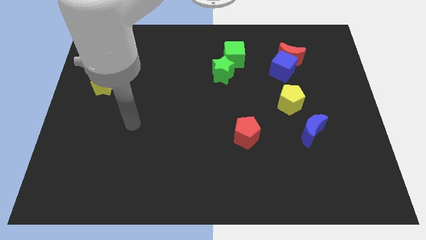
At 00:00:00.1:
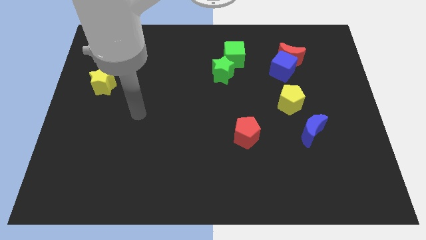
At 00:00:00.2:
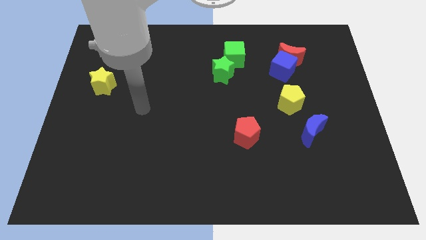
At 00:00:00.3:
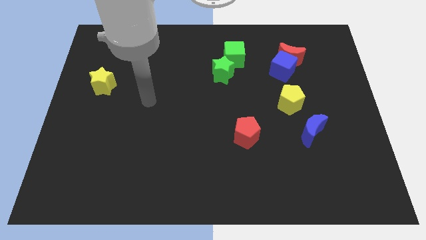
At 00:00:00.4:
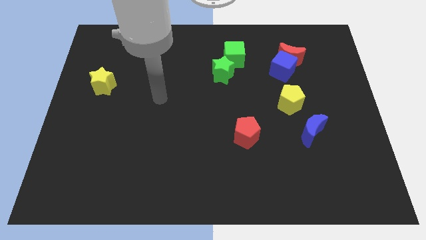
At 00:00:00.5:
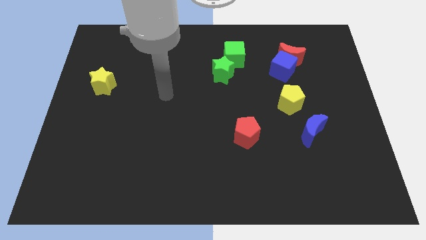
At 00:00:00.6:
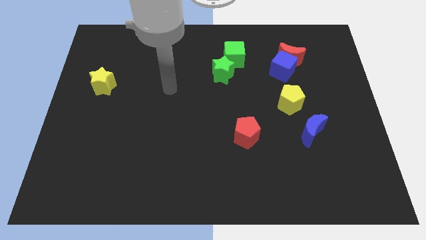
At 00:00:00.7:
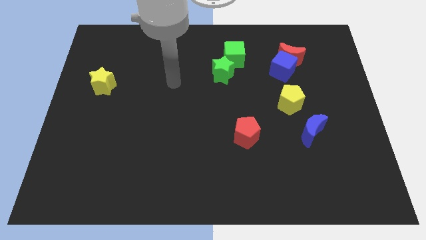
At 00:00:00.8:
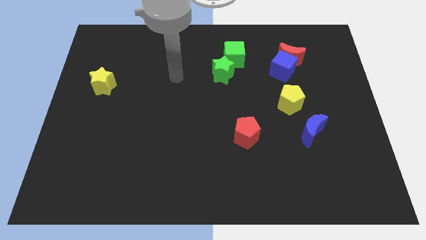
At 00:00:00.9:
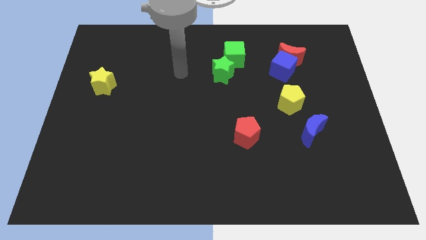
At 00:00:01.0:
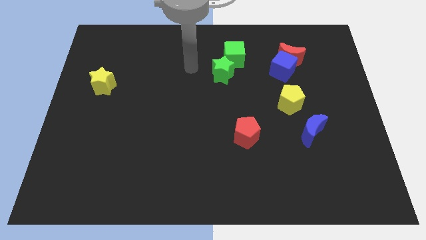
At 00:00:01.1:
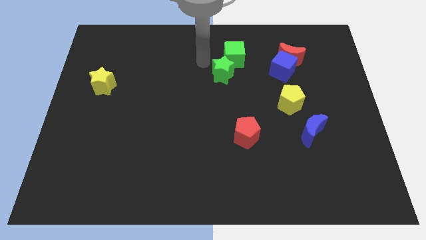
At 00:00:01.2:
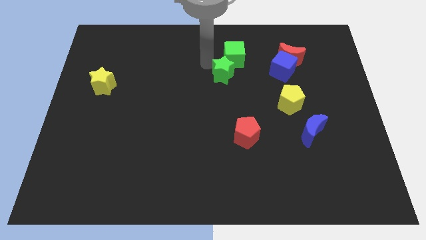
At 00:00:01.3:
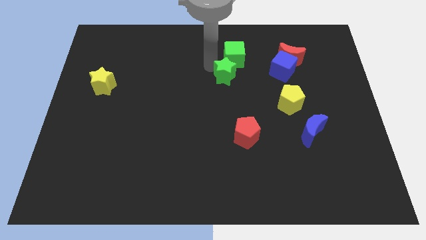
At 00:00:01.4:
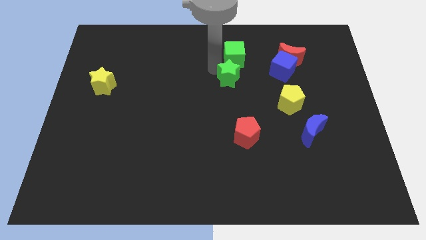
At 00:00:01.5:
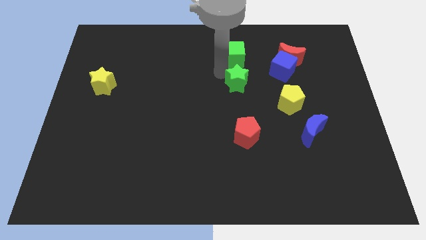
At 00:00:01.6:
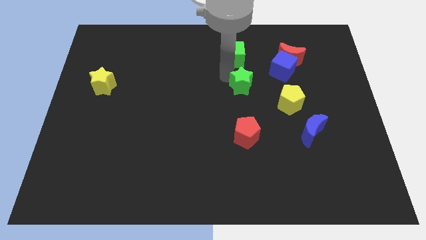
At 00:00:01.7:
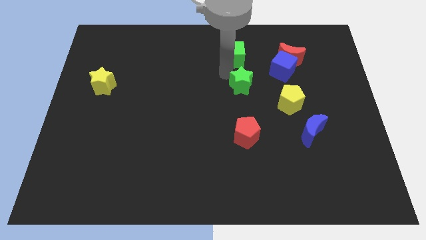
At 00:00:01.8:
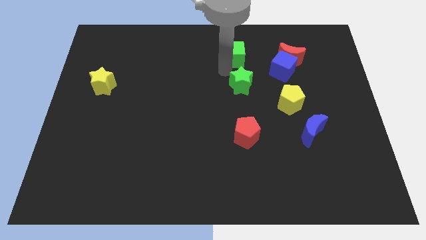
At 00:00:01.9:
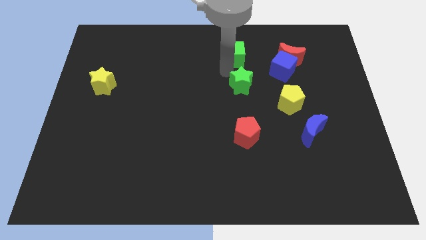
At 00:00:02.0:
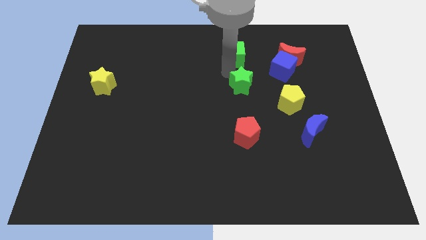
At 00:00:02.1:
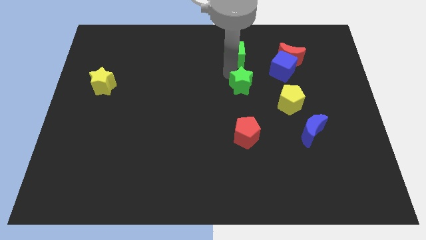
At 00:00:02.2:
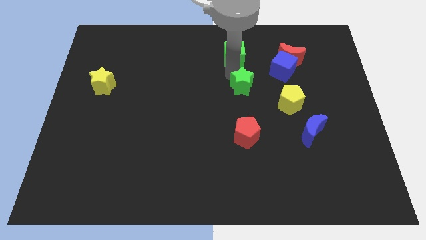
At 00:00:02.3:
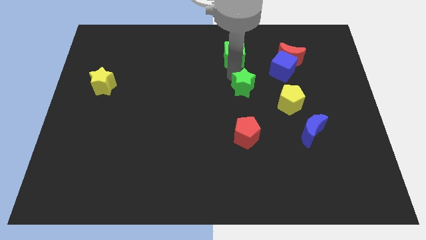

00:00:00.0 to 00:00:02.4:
push the green star slightly downwards and right diagonally

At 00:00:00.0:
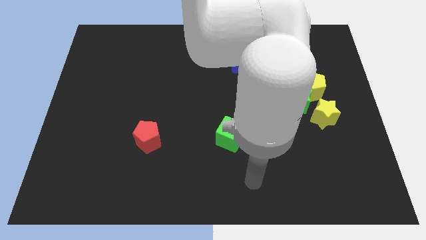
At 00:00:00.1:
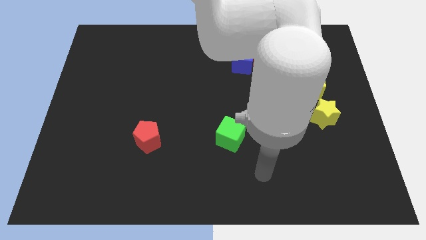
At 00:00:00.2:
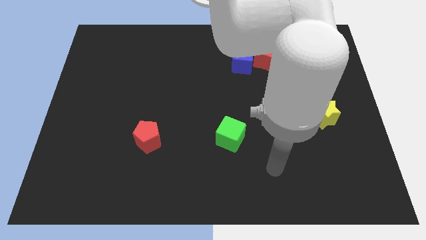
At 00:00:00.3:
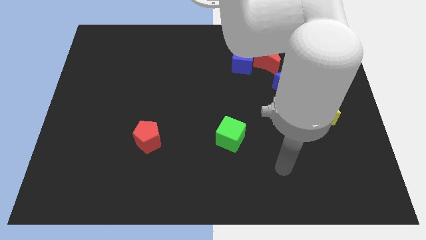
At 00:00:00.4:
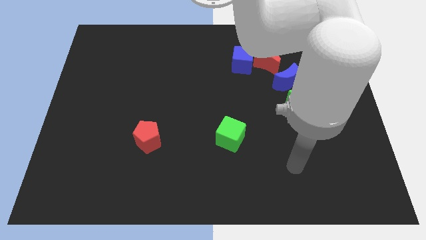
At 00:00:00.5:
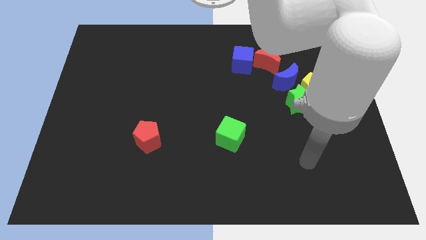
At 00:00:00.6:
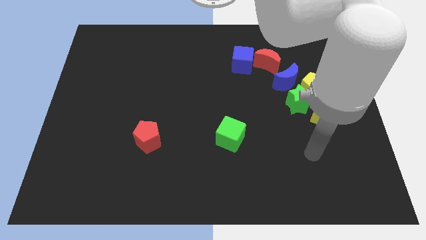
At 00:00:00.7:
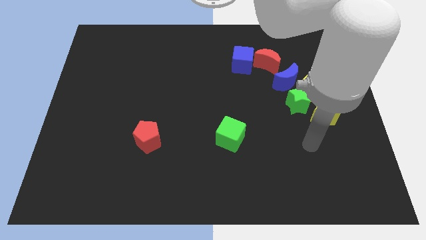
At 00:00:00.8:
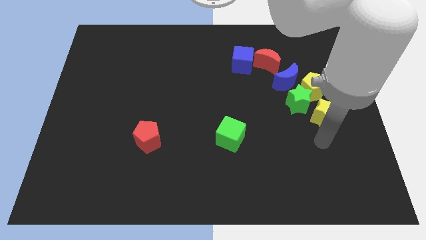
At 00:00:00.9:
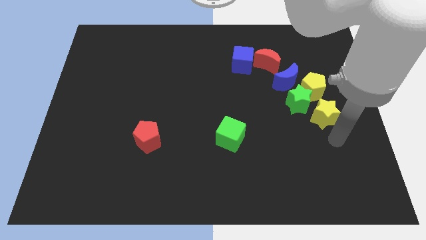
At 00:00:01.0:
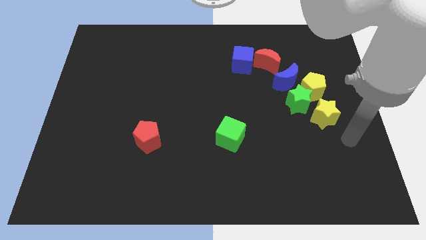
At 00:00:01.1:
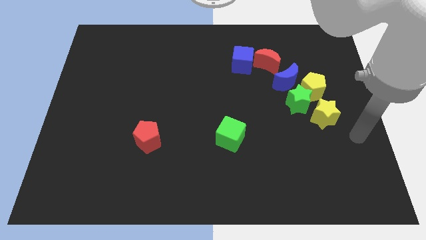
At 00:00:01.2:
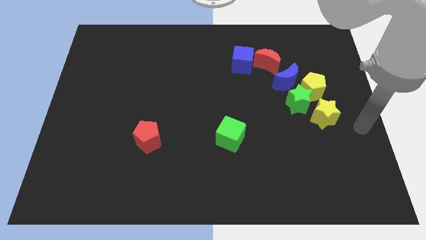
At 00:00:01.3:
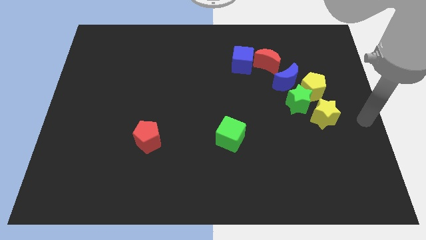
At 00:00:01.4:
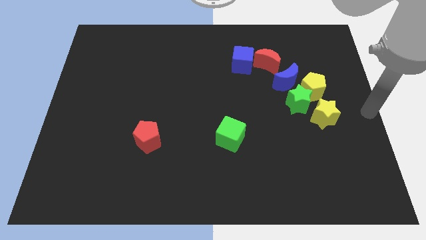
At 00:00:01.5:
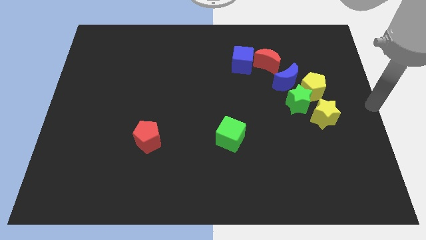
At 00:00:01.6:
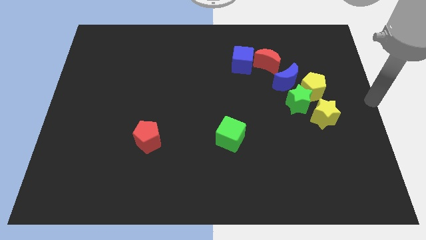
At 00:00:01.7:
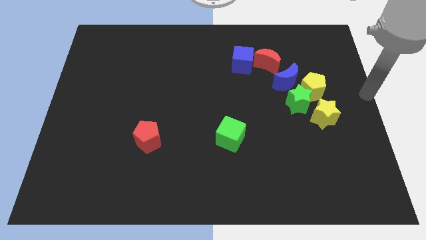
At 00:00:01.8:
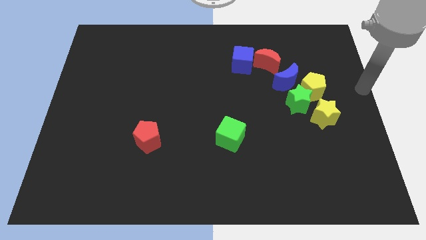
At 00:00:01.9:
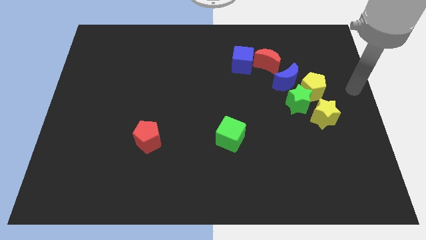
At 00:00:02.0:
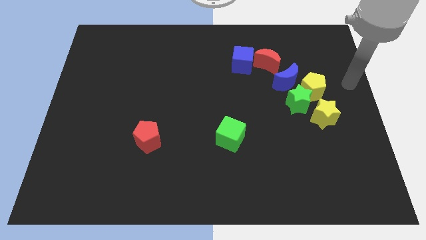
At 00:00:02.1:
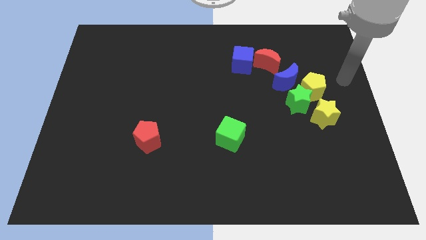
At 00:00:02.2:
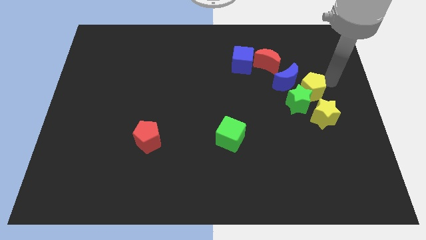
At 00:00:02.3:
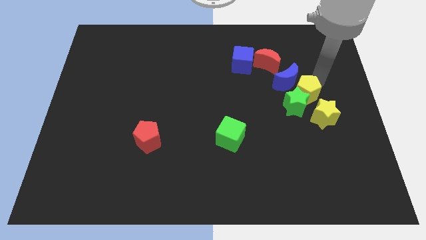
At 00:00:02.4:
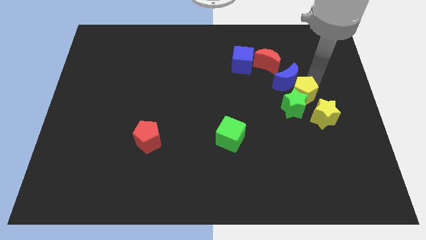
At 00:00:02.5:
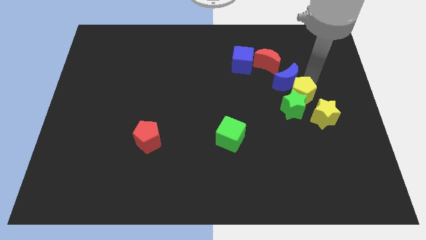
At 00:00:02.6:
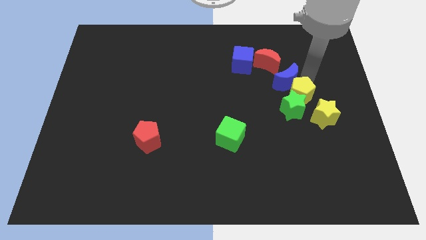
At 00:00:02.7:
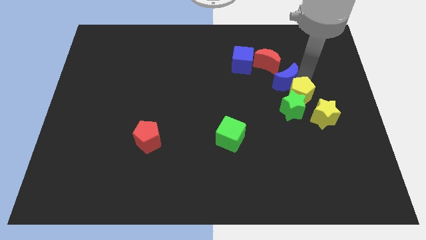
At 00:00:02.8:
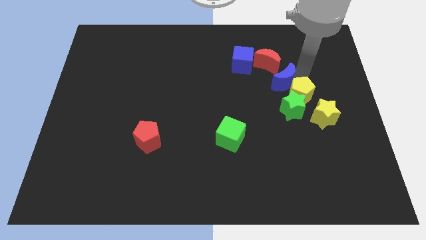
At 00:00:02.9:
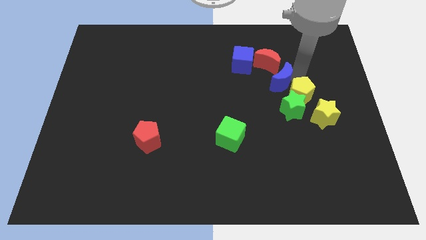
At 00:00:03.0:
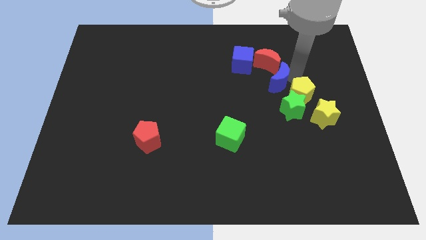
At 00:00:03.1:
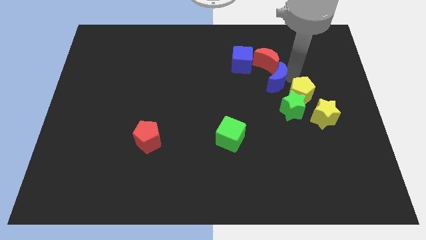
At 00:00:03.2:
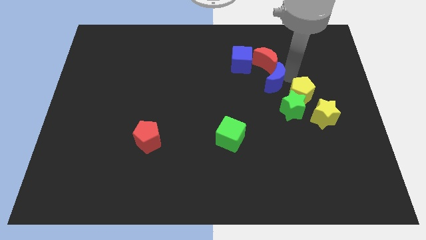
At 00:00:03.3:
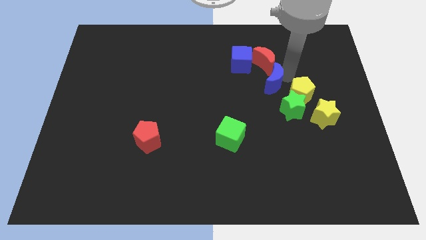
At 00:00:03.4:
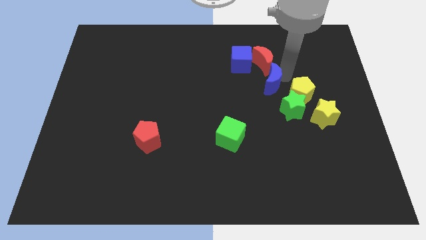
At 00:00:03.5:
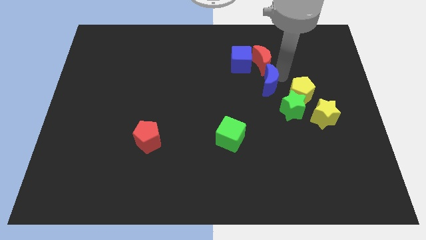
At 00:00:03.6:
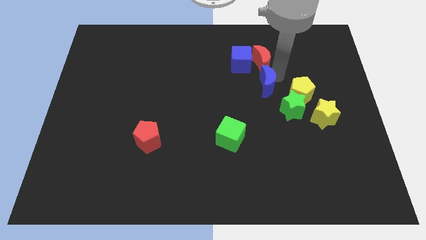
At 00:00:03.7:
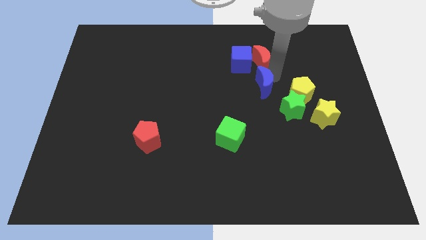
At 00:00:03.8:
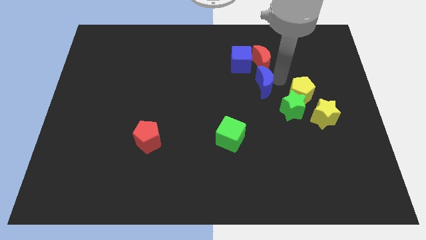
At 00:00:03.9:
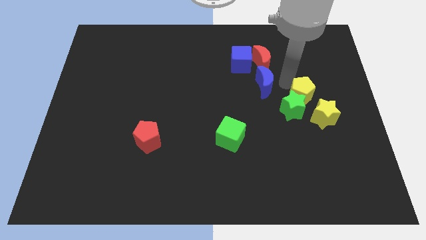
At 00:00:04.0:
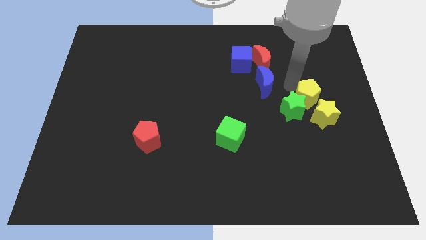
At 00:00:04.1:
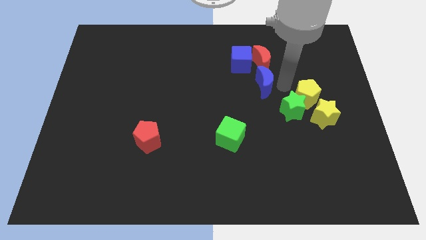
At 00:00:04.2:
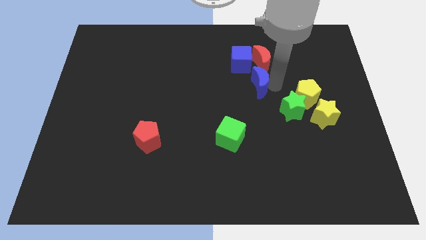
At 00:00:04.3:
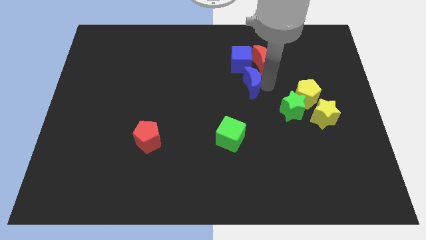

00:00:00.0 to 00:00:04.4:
slightly move the blue moon left

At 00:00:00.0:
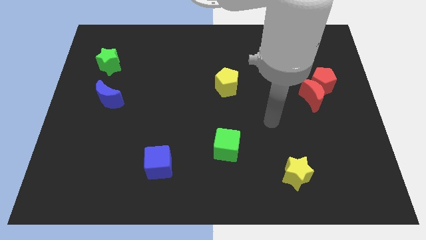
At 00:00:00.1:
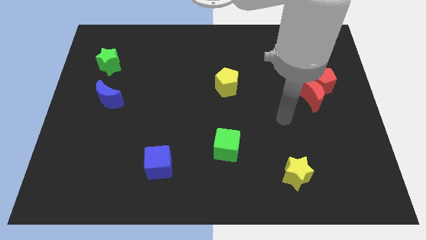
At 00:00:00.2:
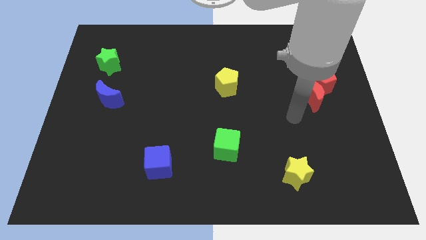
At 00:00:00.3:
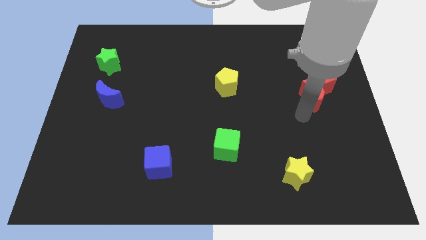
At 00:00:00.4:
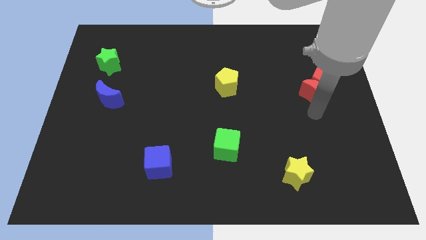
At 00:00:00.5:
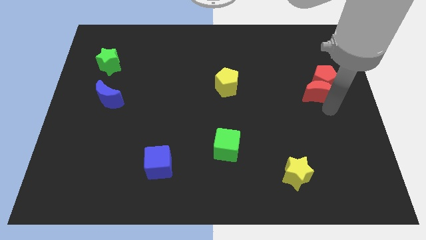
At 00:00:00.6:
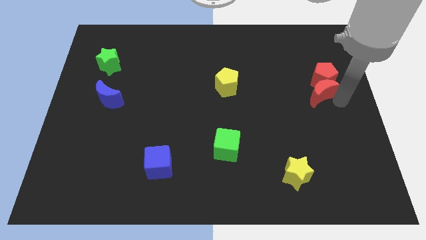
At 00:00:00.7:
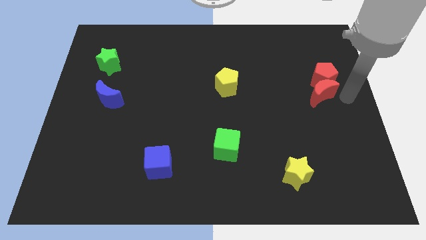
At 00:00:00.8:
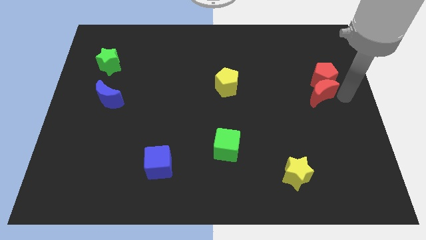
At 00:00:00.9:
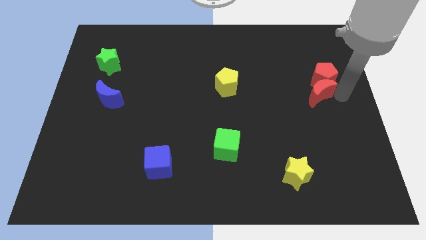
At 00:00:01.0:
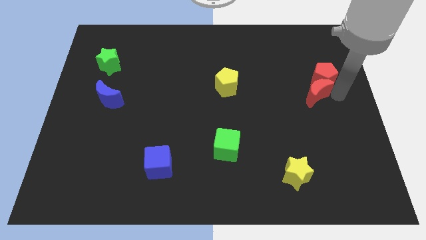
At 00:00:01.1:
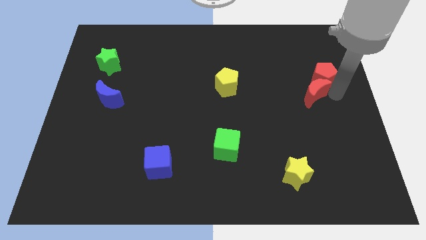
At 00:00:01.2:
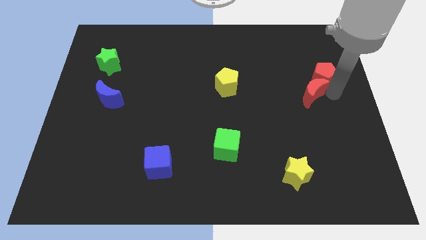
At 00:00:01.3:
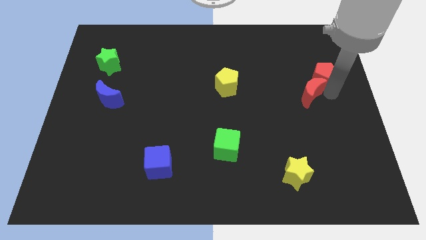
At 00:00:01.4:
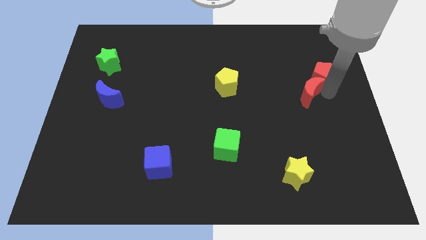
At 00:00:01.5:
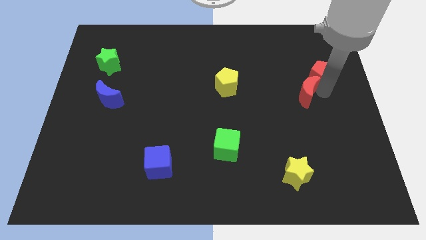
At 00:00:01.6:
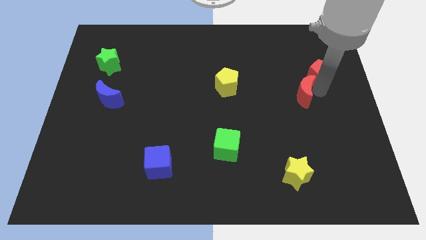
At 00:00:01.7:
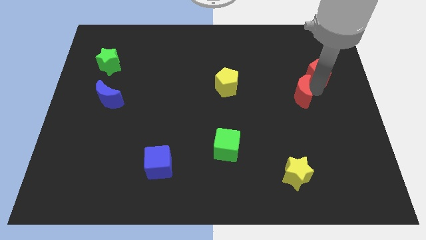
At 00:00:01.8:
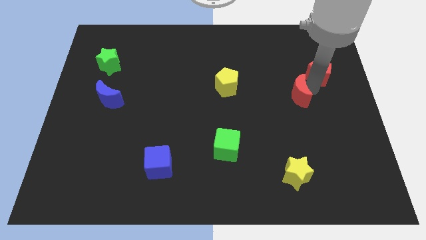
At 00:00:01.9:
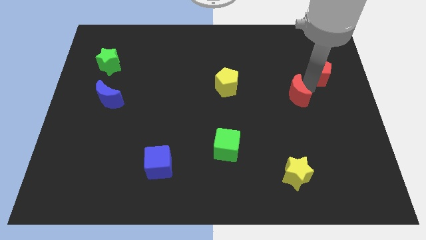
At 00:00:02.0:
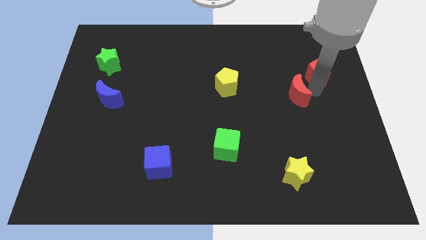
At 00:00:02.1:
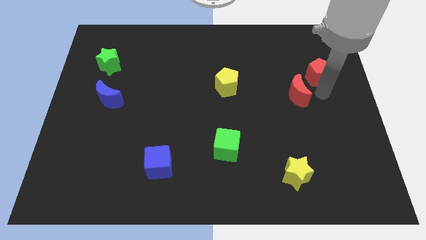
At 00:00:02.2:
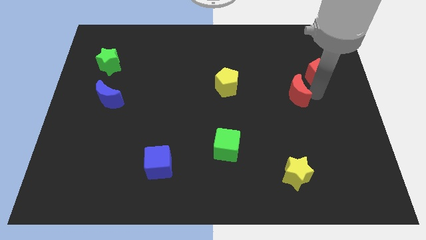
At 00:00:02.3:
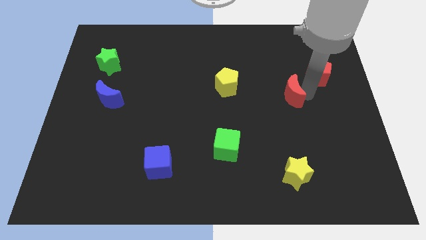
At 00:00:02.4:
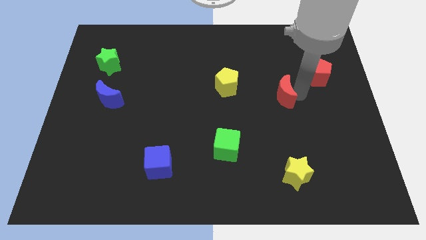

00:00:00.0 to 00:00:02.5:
slide the red moon a little left
